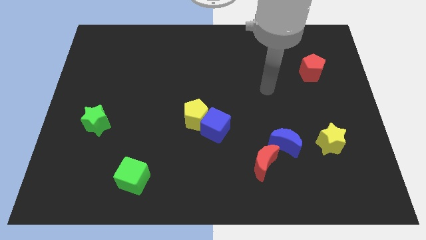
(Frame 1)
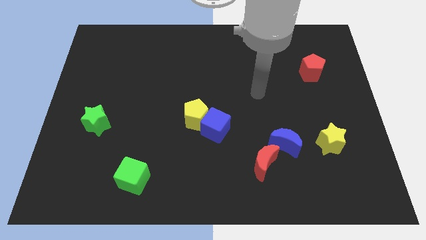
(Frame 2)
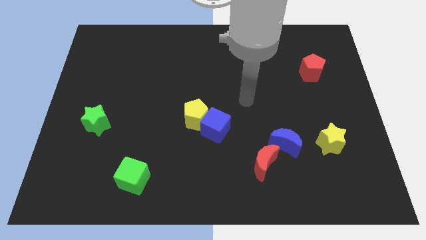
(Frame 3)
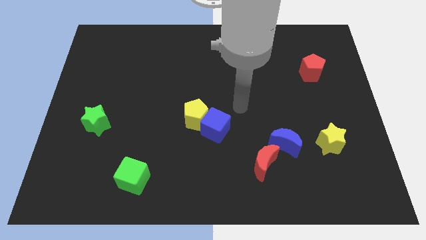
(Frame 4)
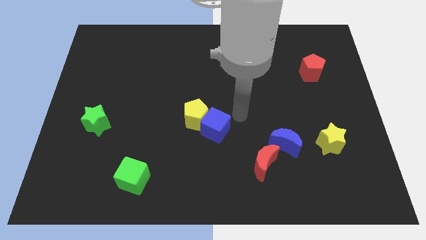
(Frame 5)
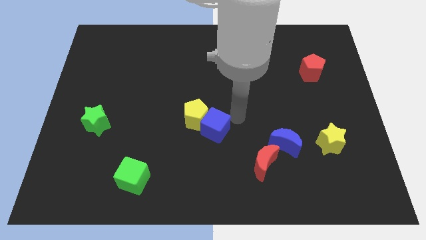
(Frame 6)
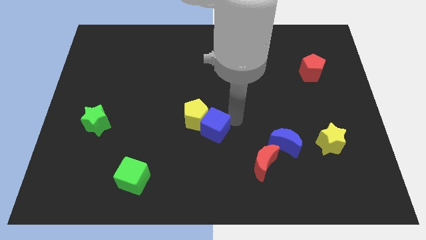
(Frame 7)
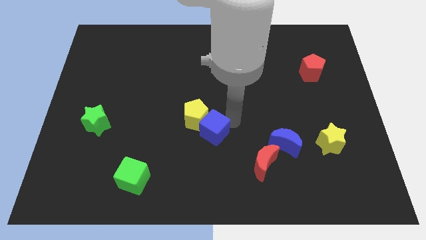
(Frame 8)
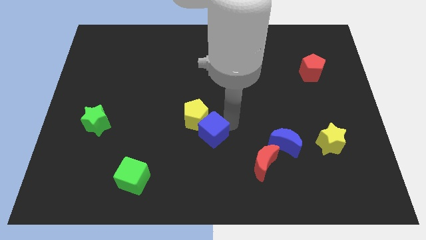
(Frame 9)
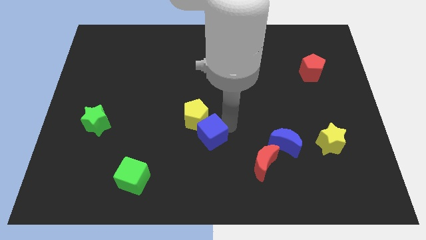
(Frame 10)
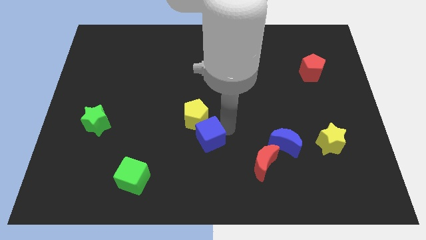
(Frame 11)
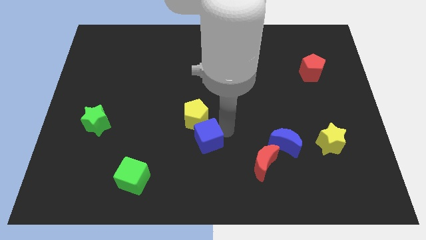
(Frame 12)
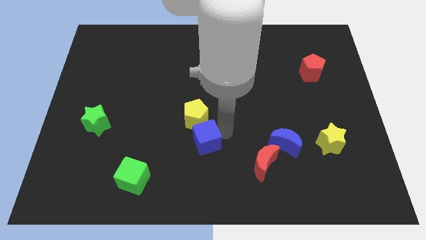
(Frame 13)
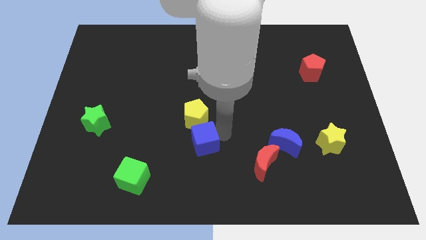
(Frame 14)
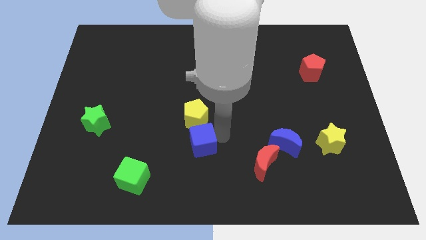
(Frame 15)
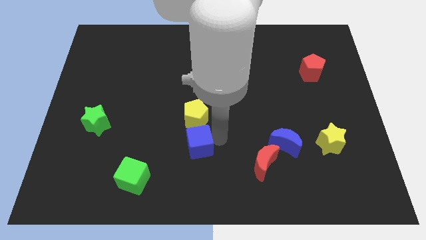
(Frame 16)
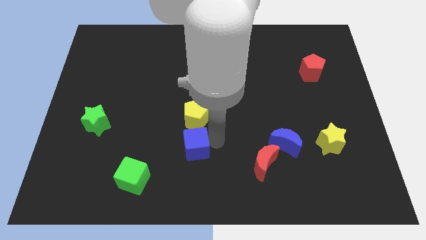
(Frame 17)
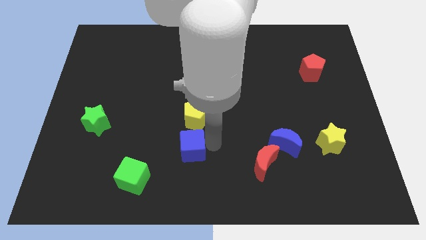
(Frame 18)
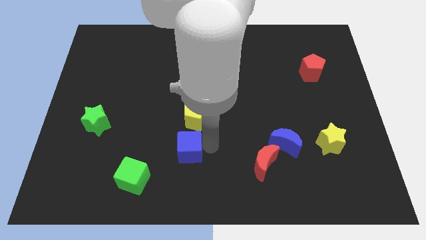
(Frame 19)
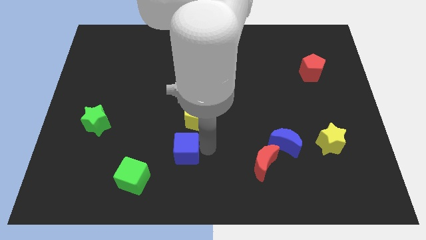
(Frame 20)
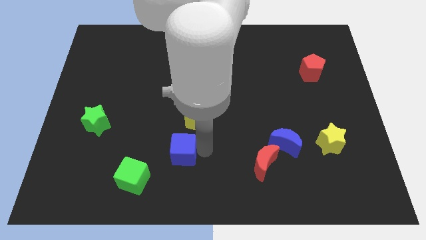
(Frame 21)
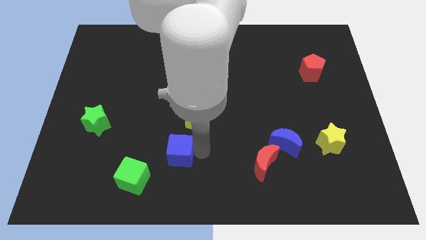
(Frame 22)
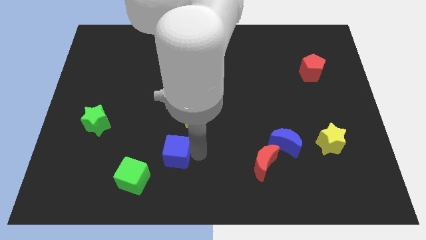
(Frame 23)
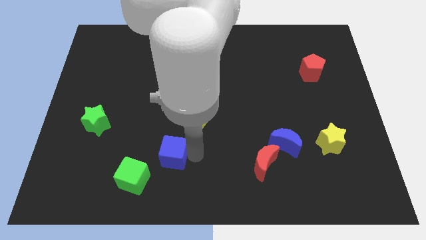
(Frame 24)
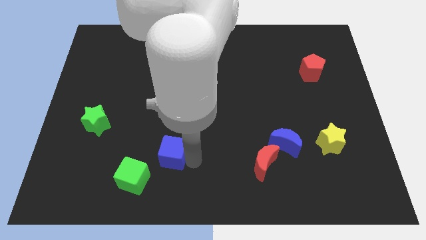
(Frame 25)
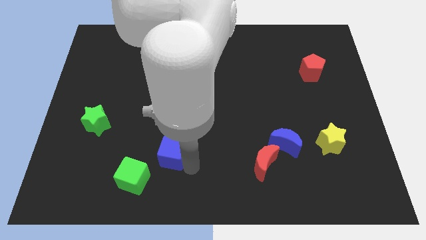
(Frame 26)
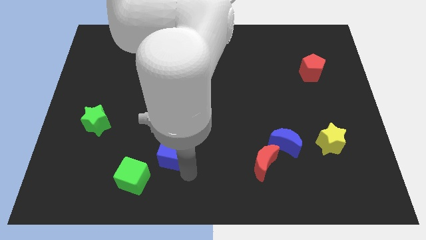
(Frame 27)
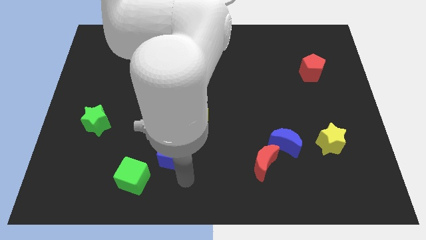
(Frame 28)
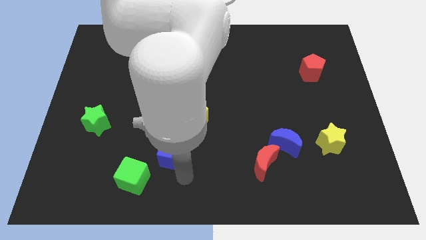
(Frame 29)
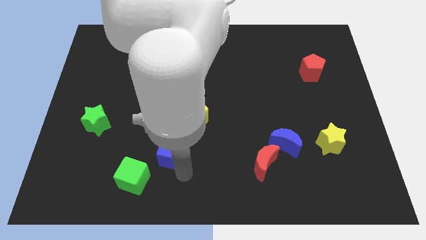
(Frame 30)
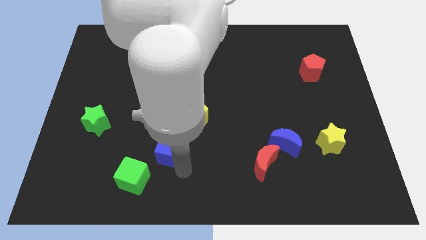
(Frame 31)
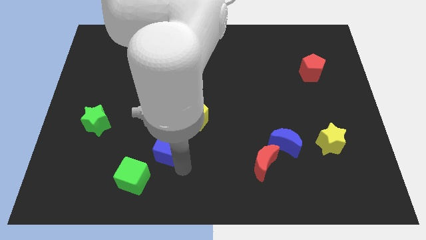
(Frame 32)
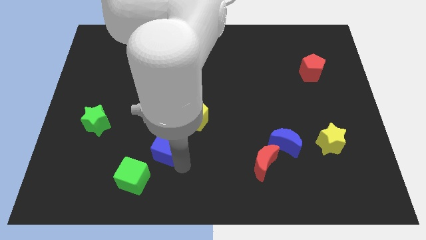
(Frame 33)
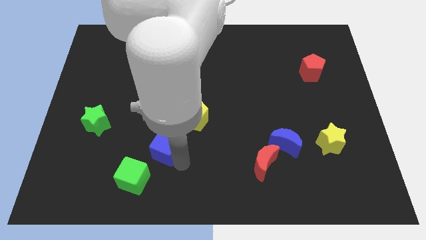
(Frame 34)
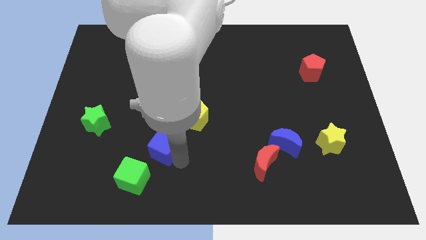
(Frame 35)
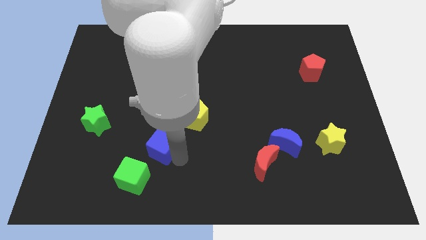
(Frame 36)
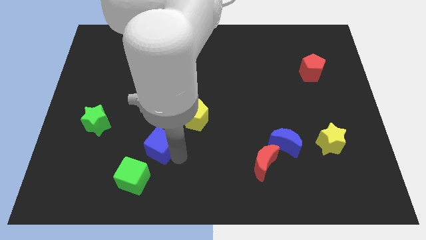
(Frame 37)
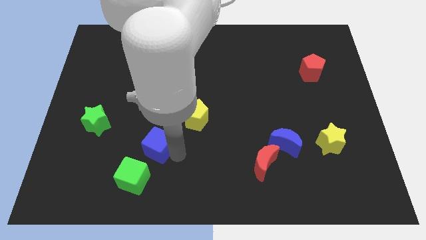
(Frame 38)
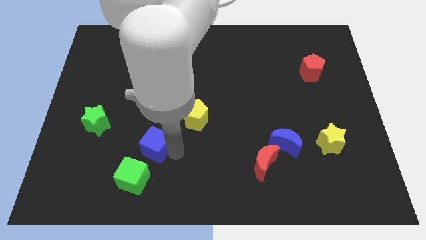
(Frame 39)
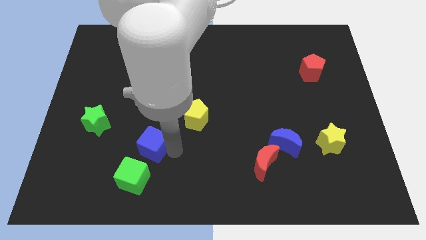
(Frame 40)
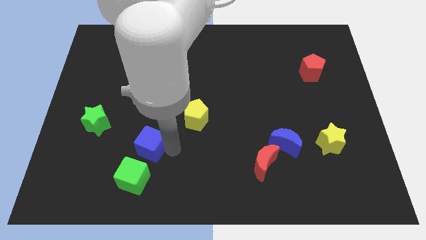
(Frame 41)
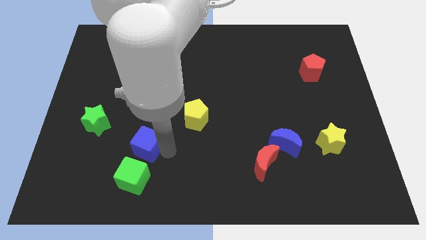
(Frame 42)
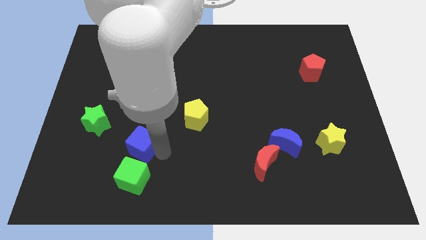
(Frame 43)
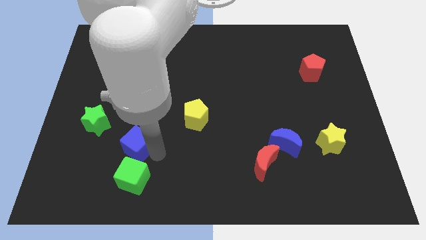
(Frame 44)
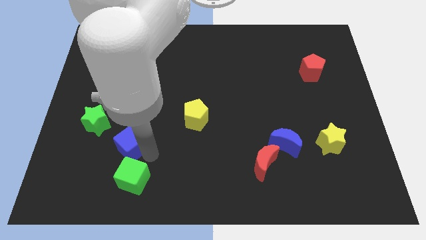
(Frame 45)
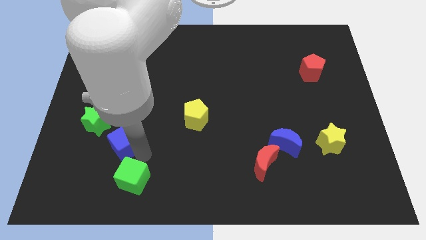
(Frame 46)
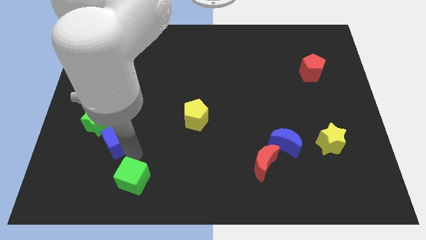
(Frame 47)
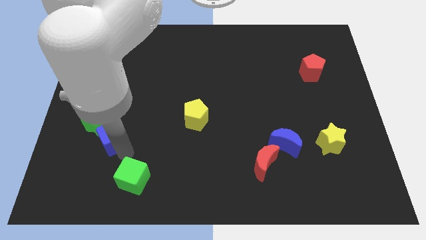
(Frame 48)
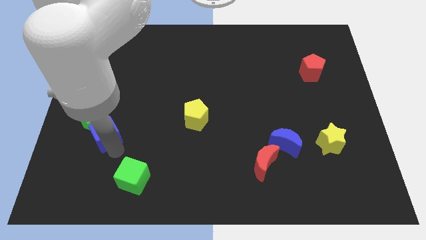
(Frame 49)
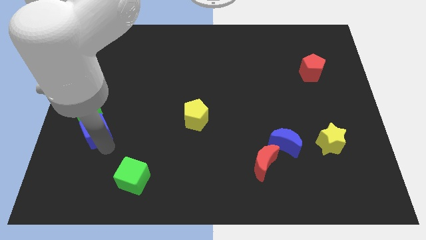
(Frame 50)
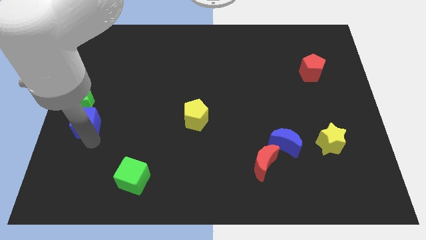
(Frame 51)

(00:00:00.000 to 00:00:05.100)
slide the blue cube to the left side

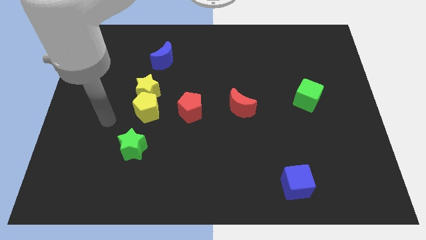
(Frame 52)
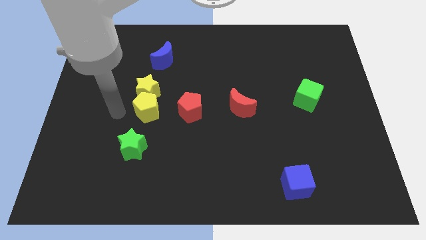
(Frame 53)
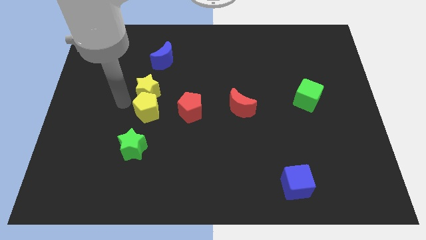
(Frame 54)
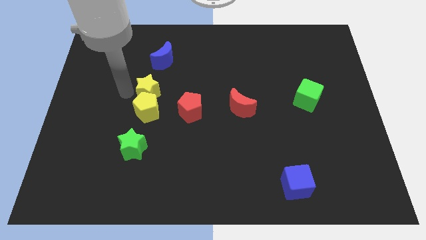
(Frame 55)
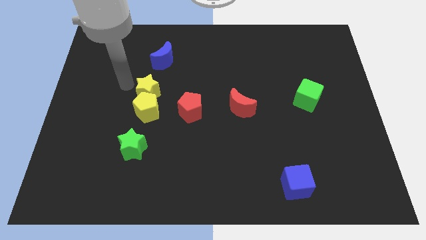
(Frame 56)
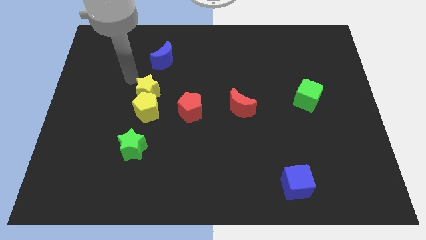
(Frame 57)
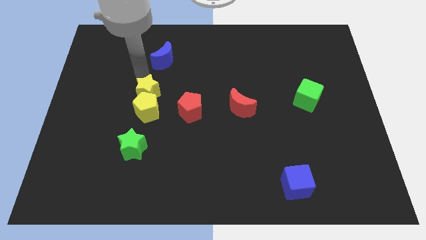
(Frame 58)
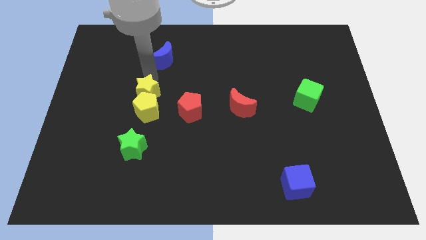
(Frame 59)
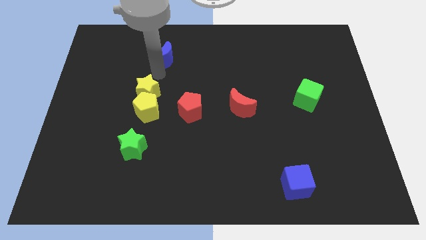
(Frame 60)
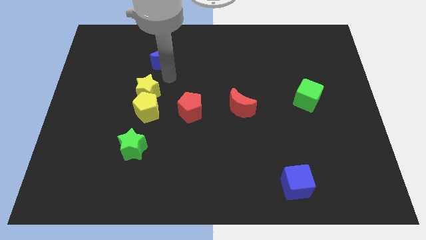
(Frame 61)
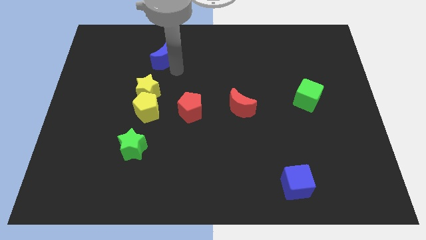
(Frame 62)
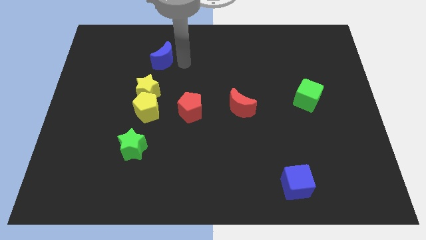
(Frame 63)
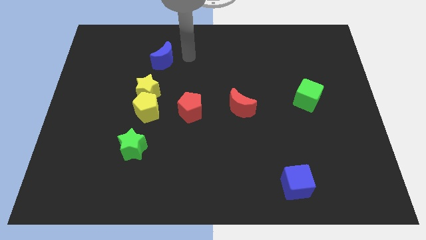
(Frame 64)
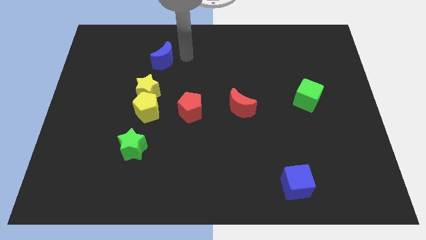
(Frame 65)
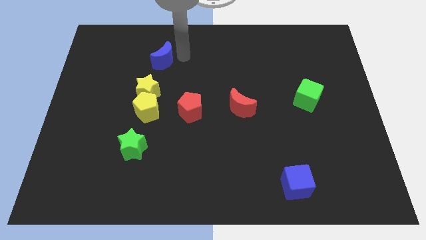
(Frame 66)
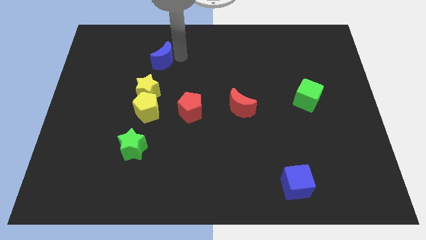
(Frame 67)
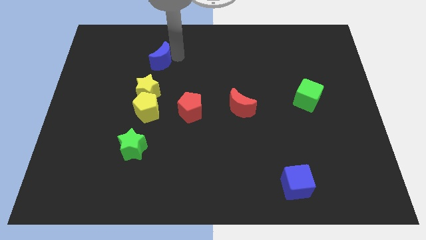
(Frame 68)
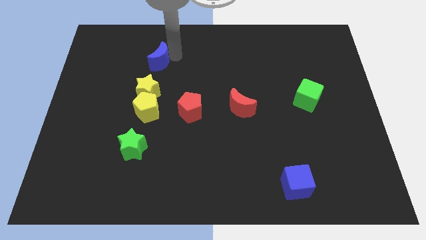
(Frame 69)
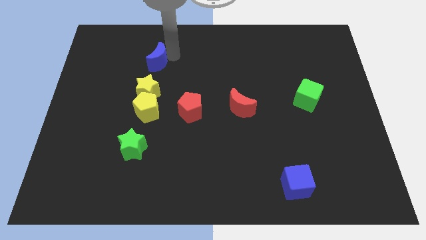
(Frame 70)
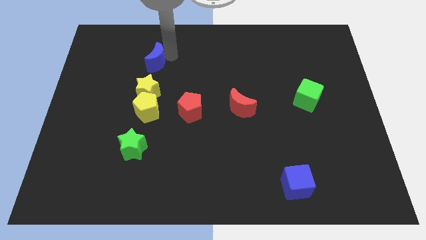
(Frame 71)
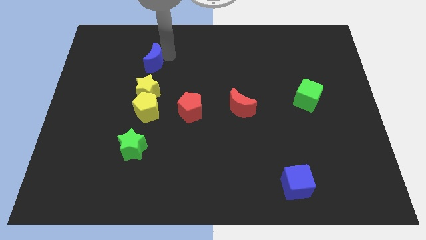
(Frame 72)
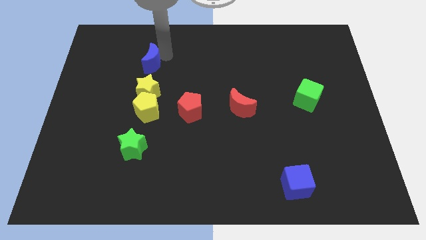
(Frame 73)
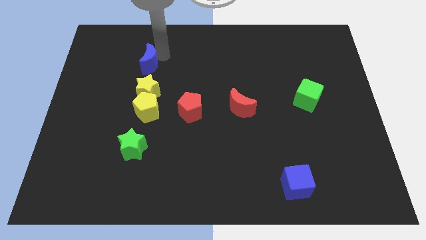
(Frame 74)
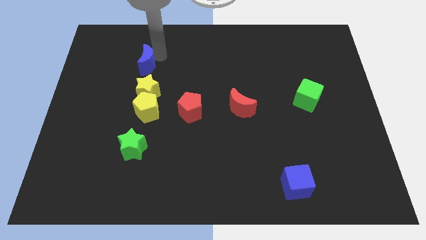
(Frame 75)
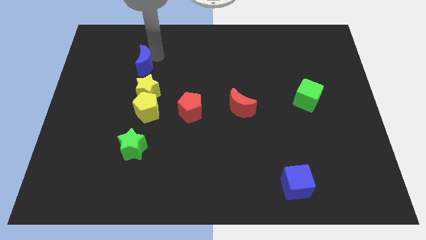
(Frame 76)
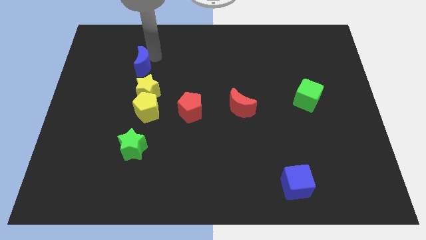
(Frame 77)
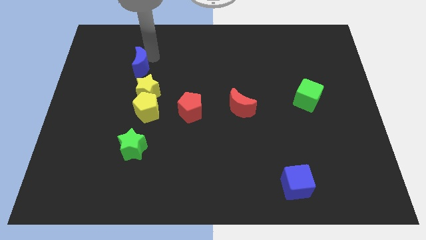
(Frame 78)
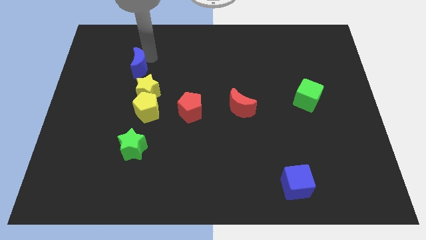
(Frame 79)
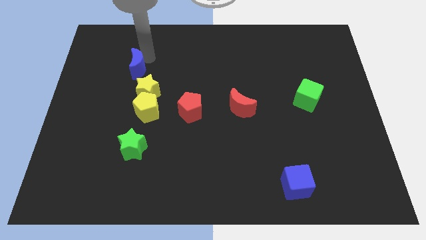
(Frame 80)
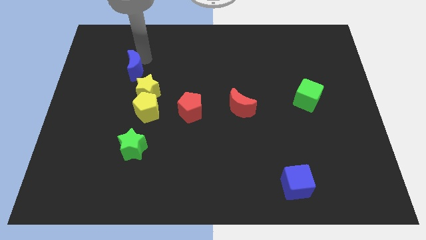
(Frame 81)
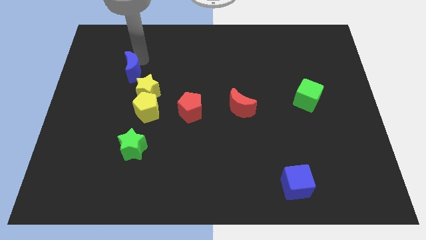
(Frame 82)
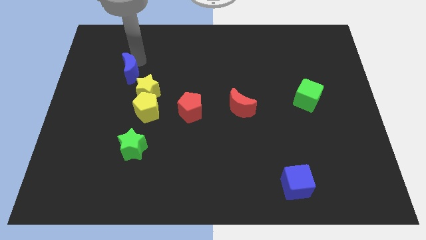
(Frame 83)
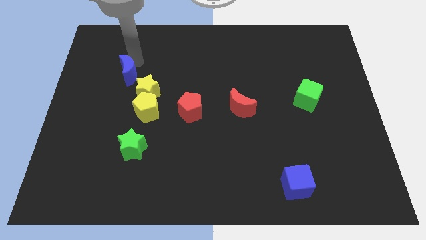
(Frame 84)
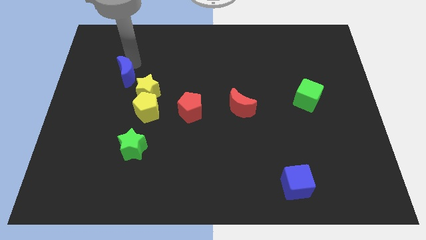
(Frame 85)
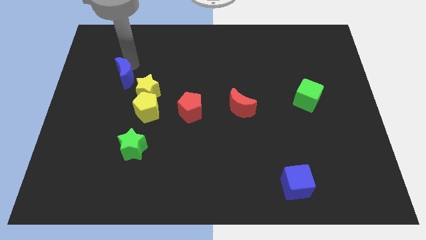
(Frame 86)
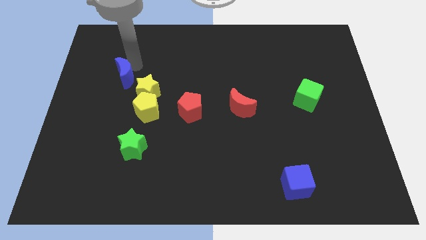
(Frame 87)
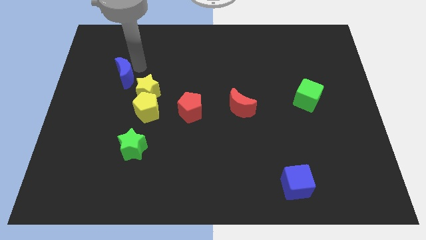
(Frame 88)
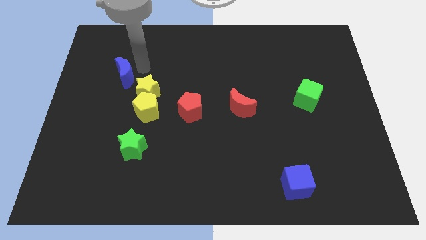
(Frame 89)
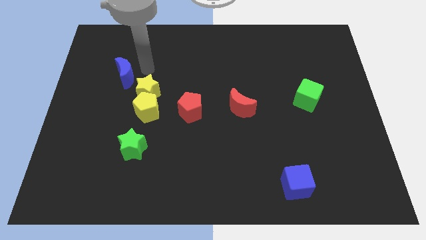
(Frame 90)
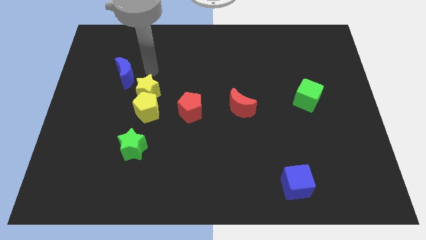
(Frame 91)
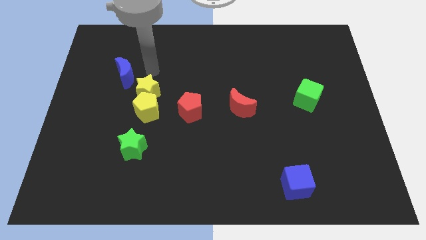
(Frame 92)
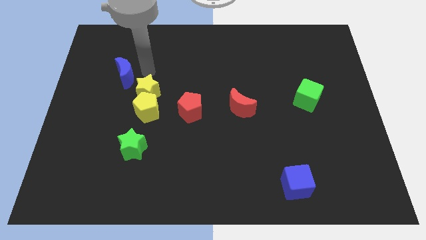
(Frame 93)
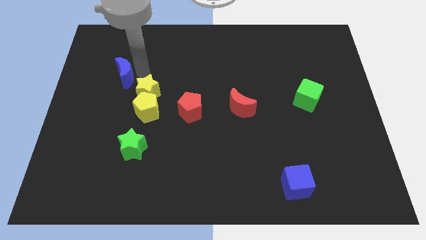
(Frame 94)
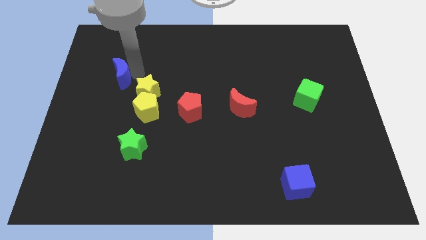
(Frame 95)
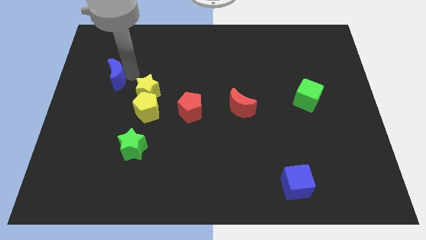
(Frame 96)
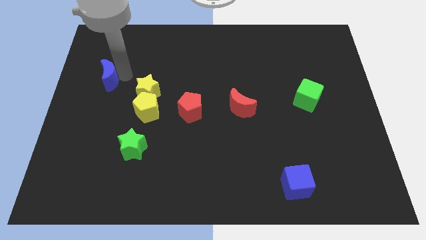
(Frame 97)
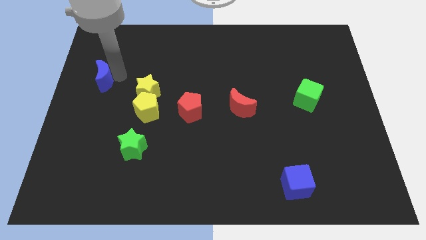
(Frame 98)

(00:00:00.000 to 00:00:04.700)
put the blue moon to the left side of the board
